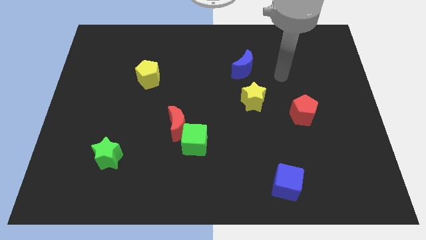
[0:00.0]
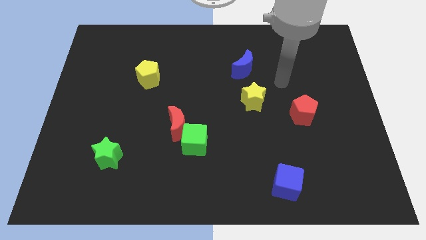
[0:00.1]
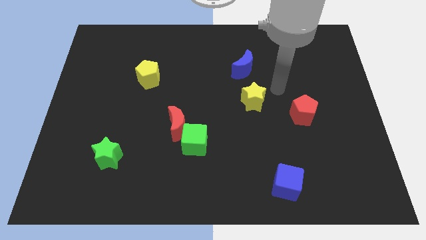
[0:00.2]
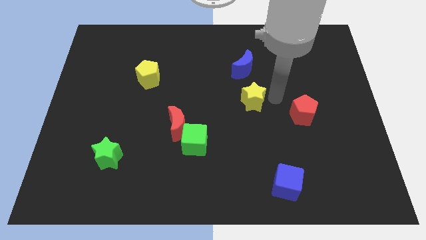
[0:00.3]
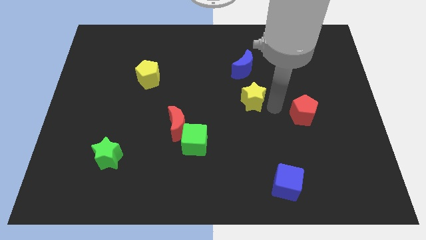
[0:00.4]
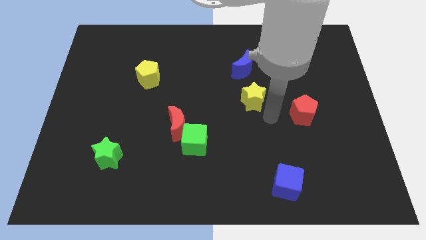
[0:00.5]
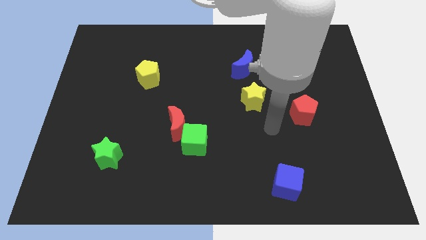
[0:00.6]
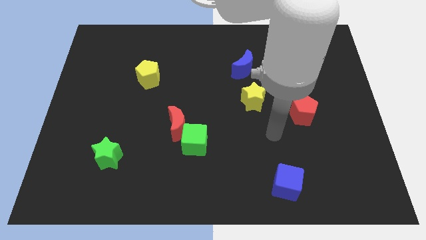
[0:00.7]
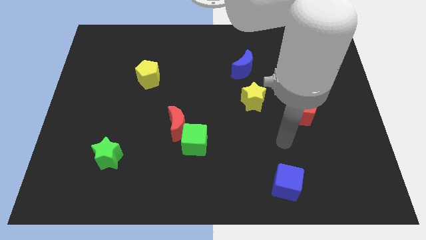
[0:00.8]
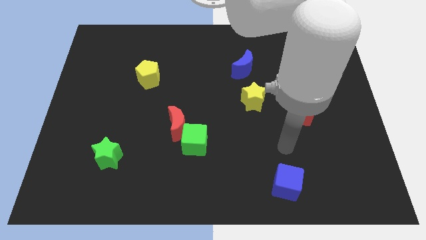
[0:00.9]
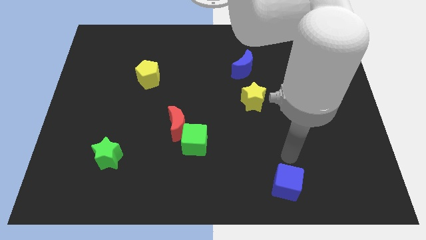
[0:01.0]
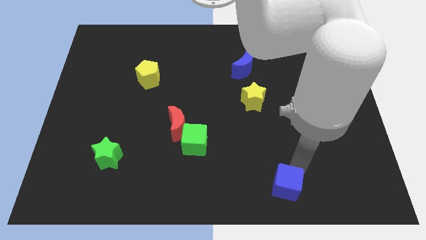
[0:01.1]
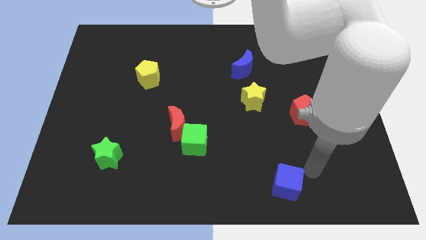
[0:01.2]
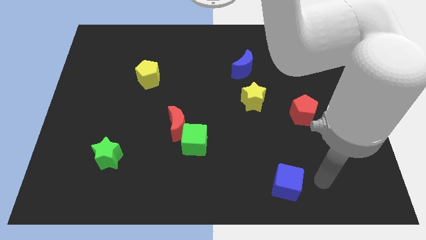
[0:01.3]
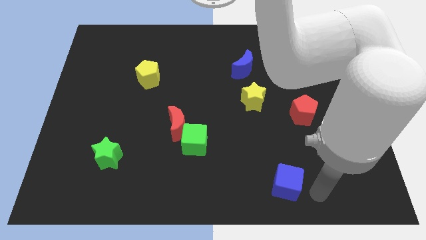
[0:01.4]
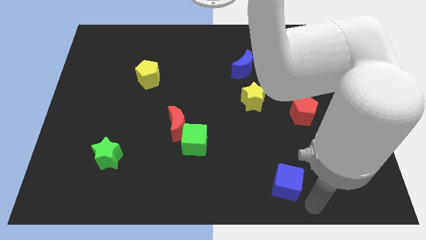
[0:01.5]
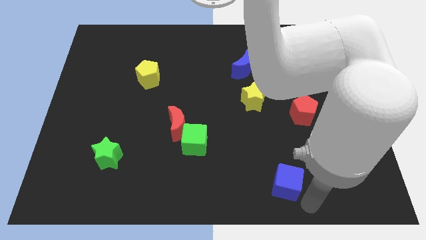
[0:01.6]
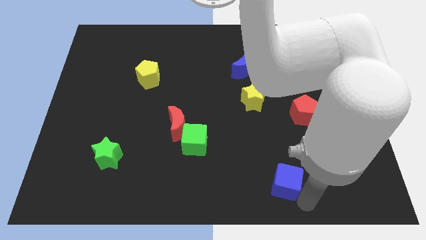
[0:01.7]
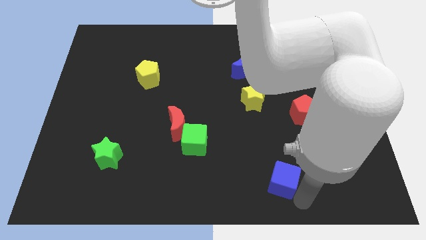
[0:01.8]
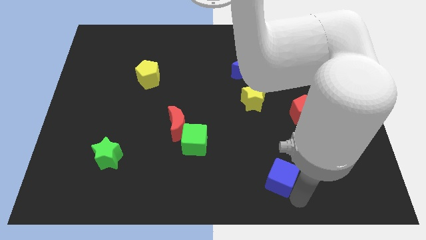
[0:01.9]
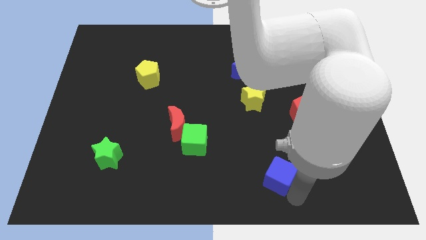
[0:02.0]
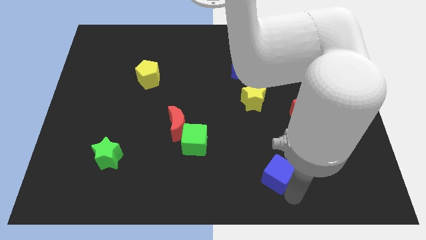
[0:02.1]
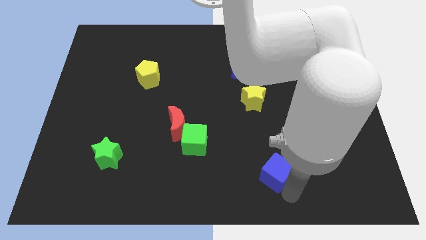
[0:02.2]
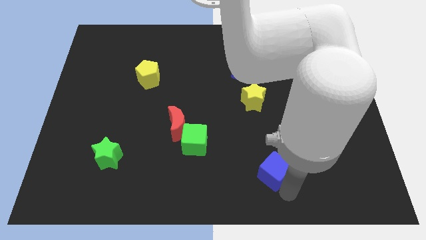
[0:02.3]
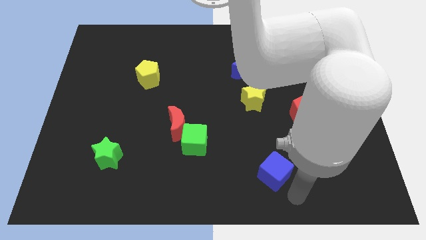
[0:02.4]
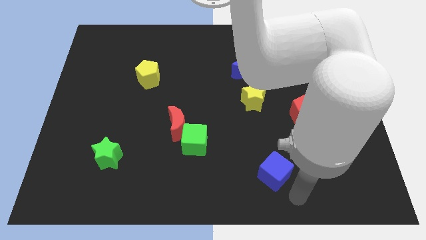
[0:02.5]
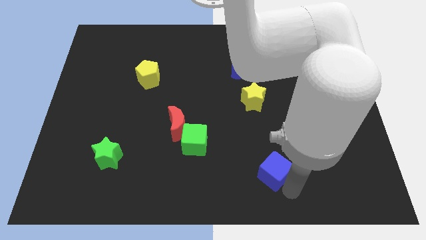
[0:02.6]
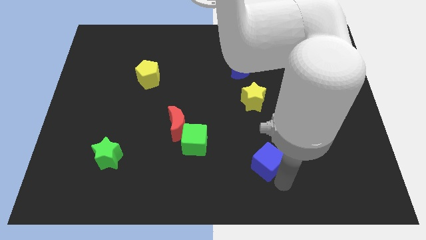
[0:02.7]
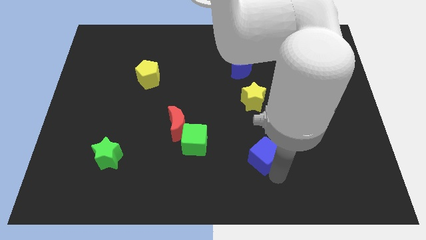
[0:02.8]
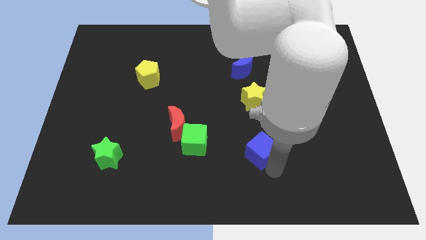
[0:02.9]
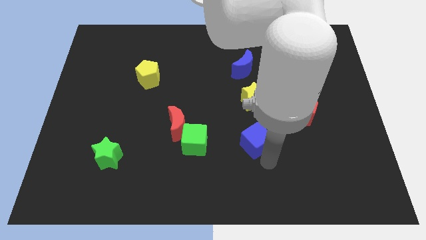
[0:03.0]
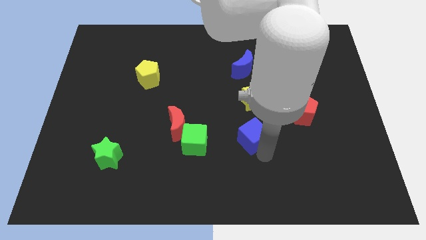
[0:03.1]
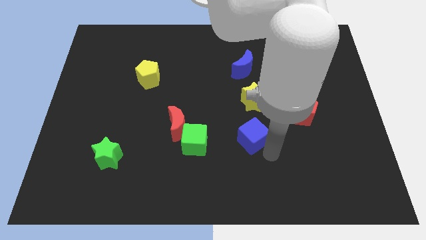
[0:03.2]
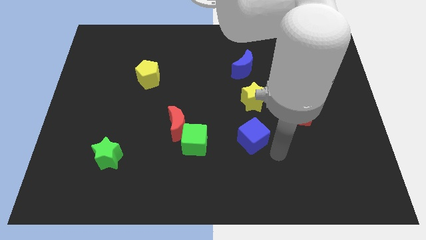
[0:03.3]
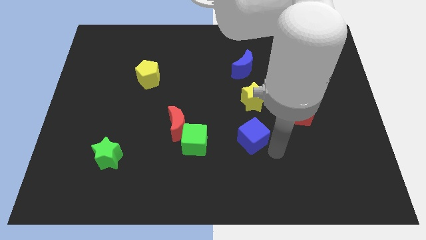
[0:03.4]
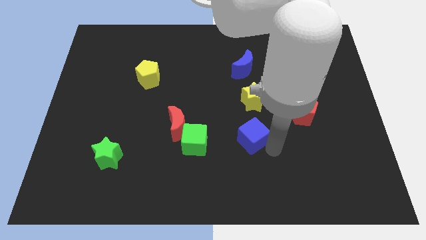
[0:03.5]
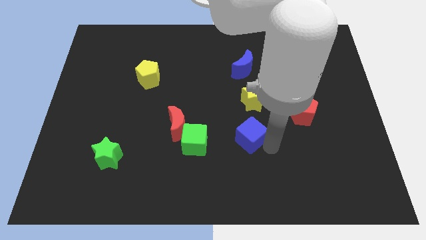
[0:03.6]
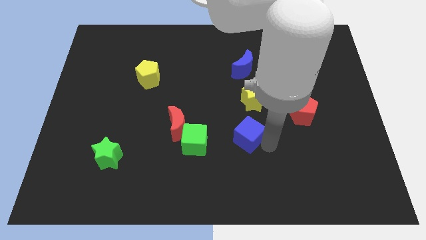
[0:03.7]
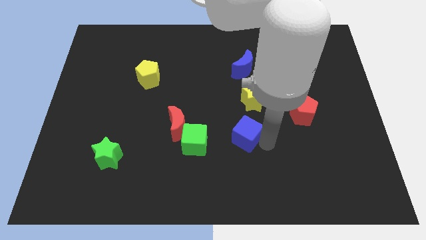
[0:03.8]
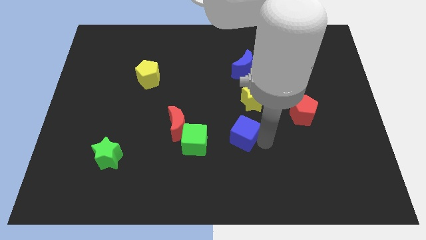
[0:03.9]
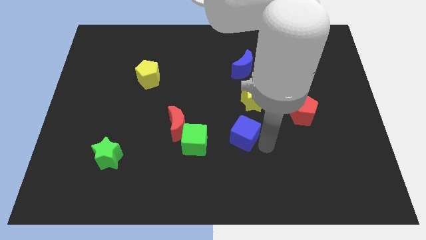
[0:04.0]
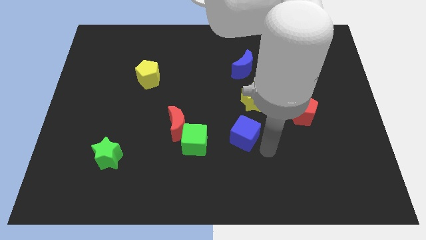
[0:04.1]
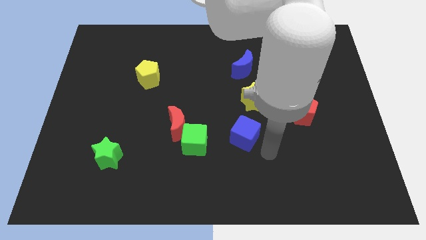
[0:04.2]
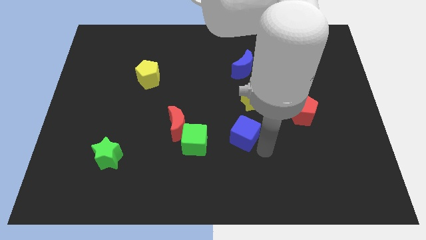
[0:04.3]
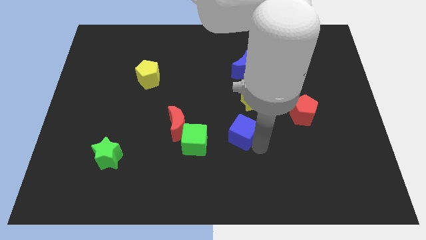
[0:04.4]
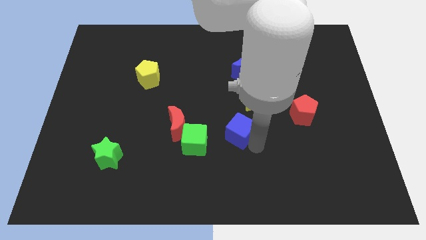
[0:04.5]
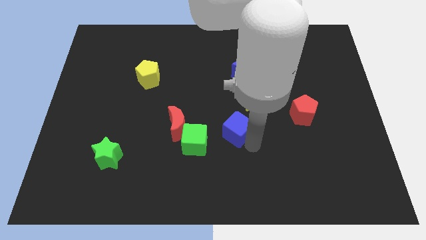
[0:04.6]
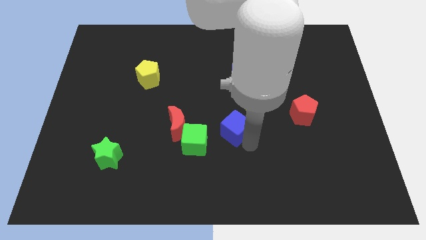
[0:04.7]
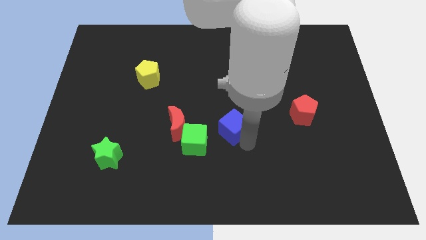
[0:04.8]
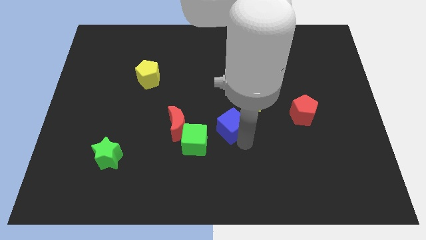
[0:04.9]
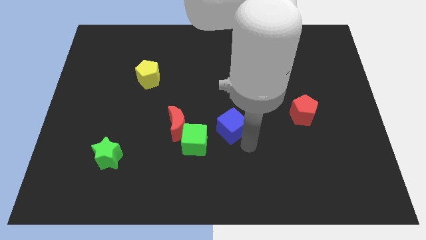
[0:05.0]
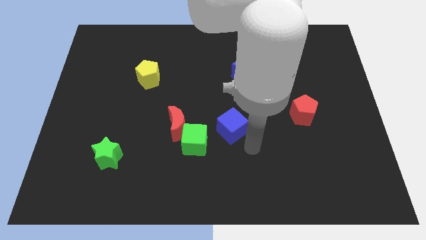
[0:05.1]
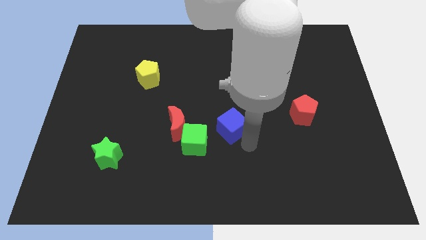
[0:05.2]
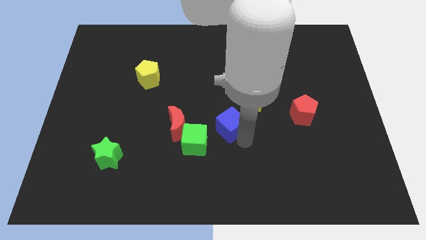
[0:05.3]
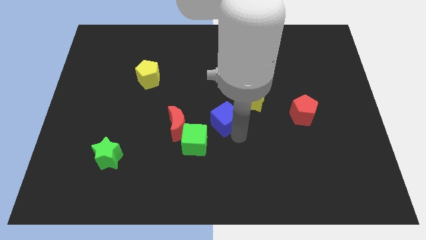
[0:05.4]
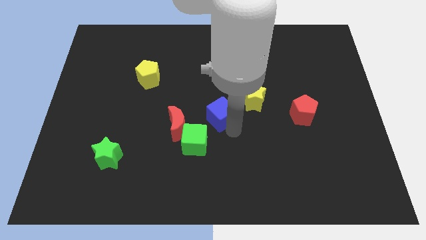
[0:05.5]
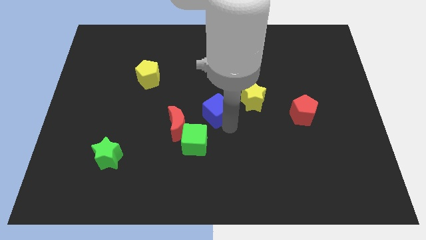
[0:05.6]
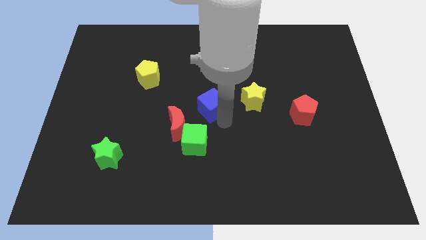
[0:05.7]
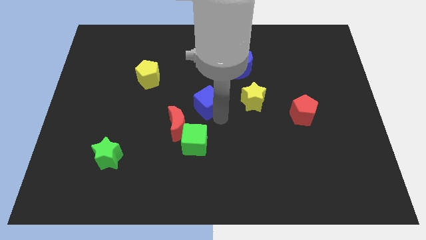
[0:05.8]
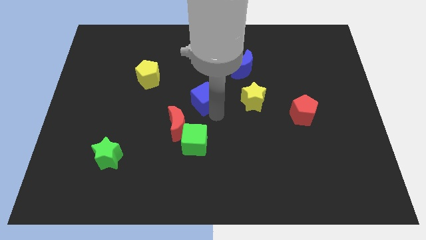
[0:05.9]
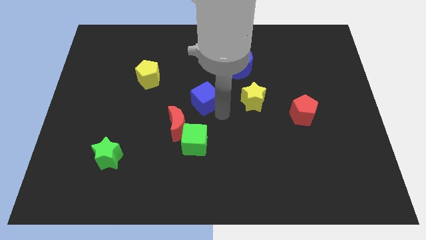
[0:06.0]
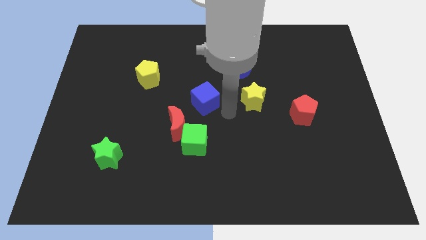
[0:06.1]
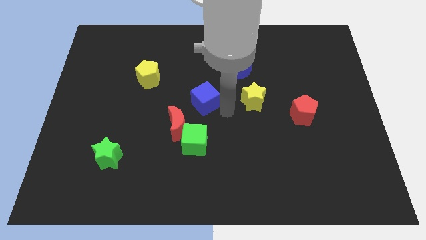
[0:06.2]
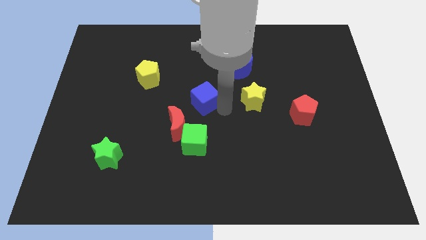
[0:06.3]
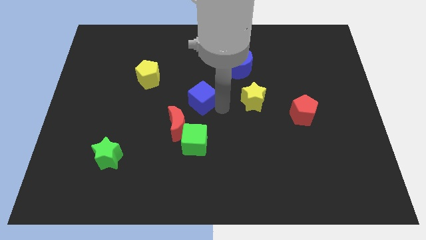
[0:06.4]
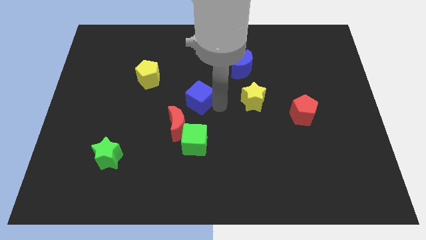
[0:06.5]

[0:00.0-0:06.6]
move the blue cube to the top side of the red moon
